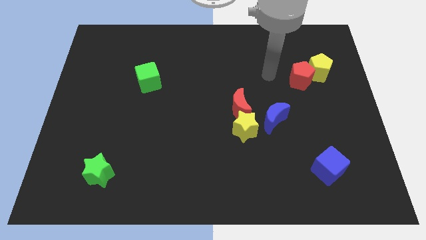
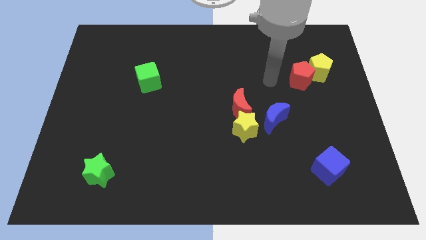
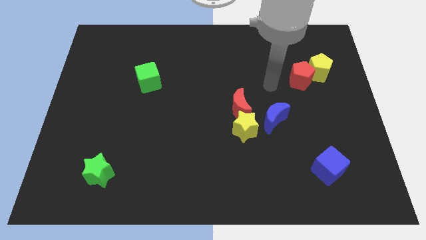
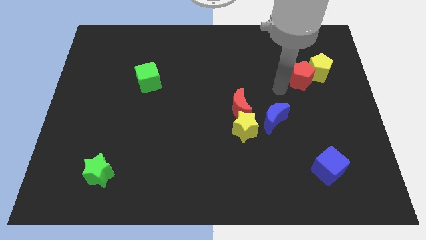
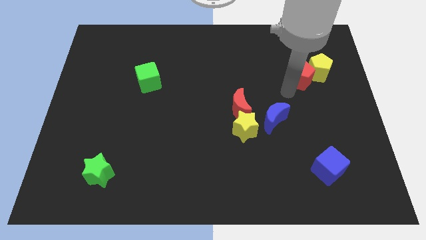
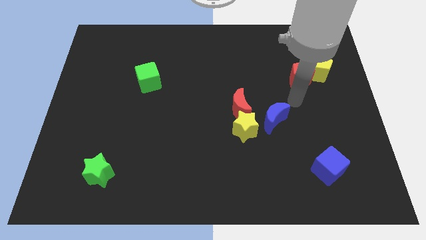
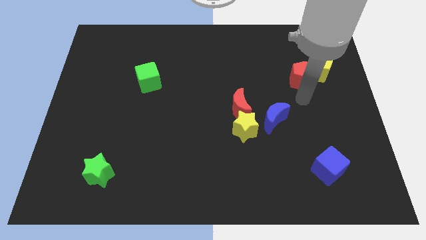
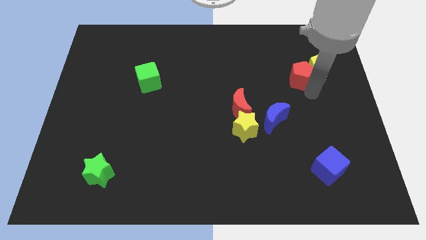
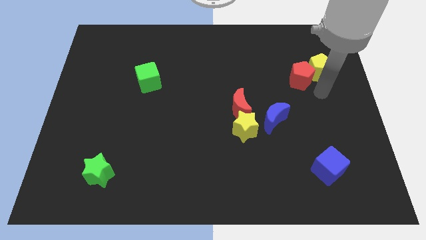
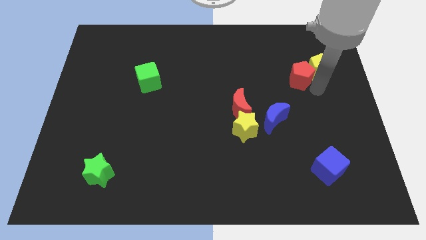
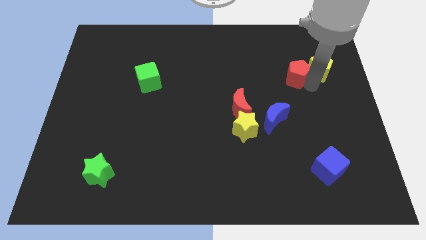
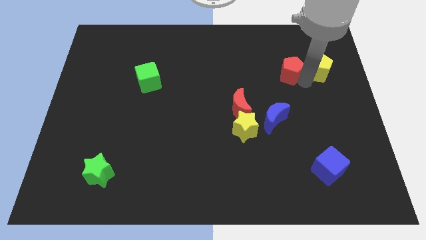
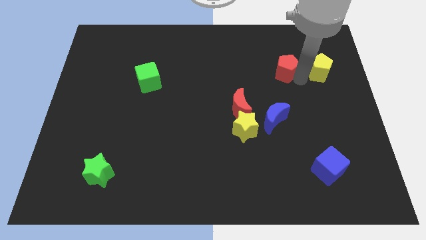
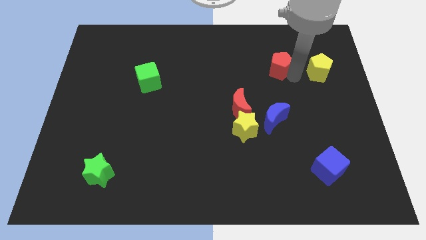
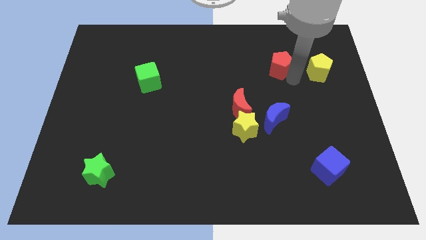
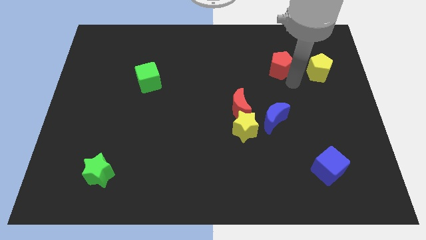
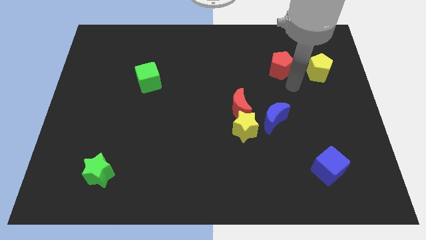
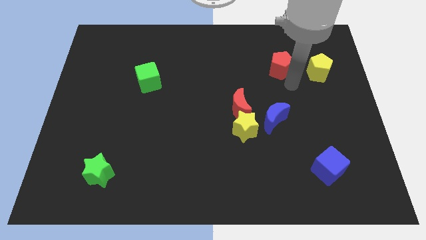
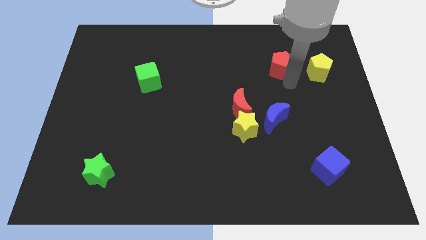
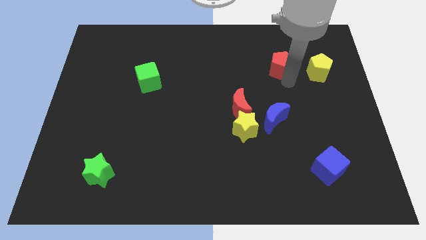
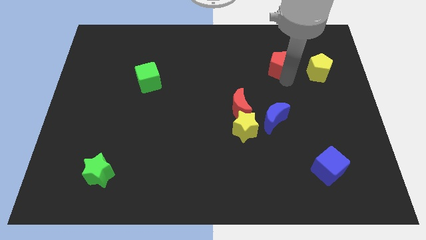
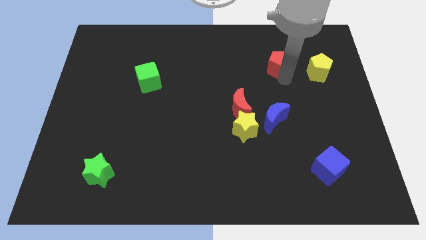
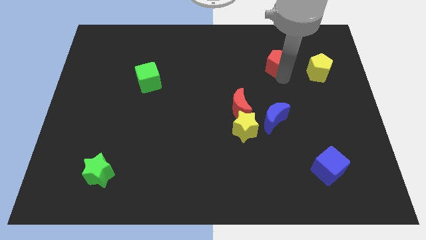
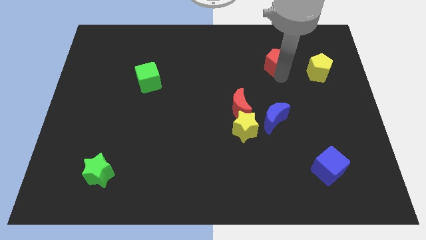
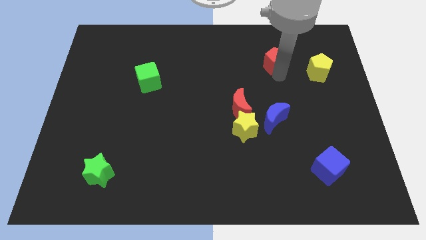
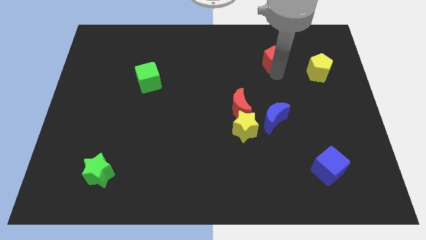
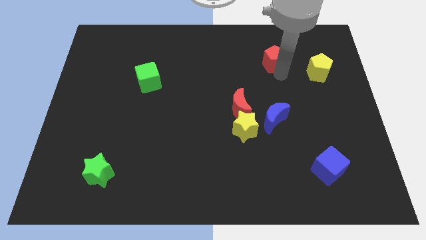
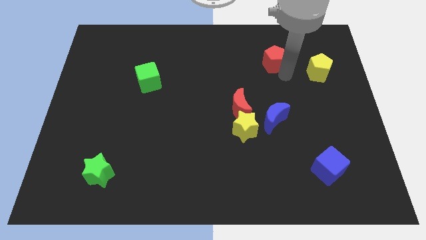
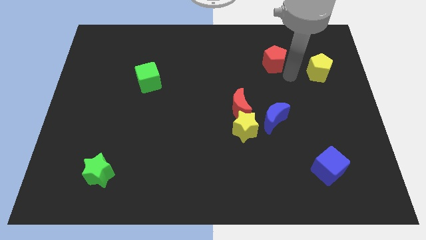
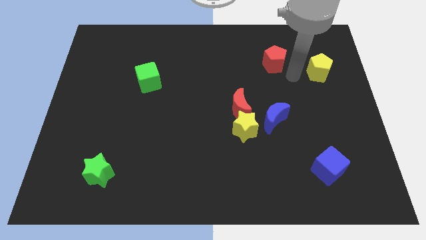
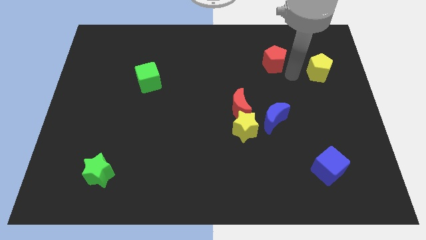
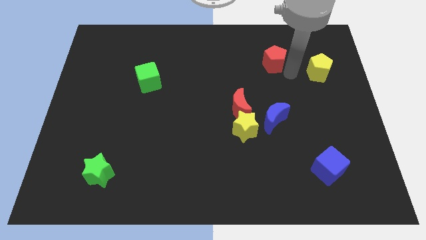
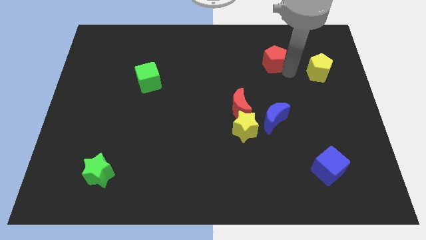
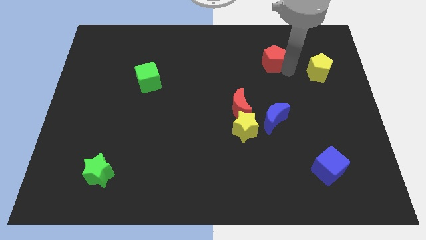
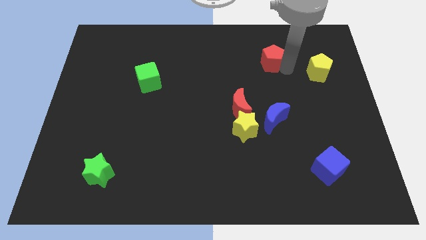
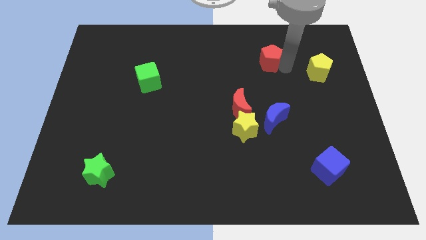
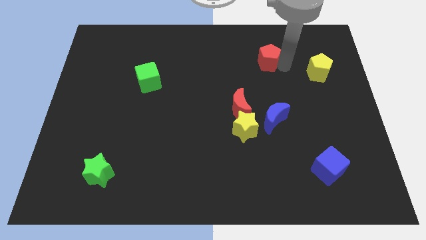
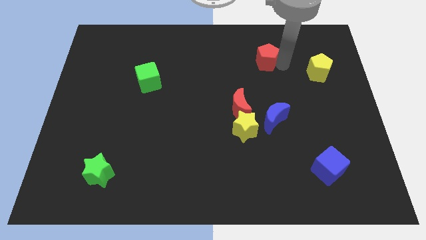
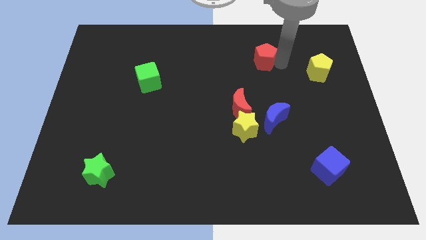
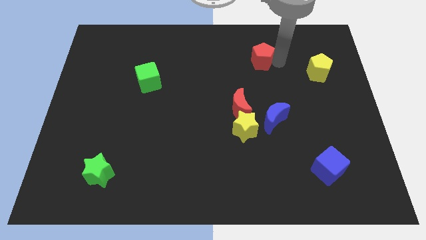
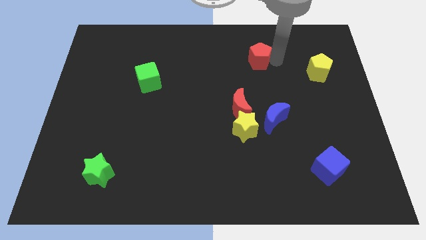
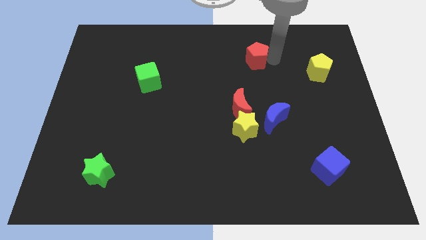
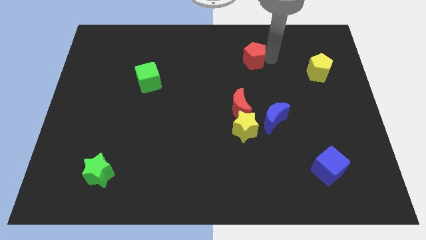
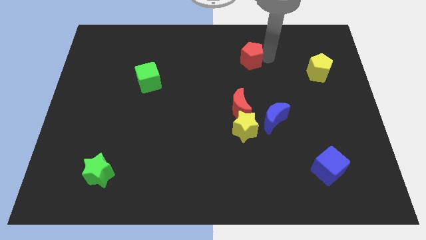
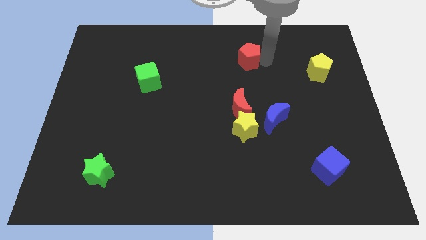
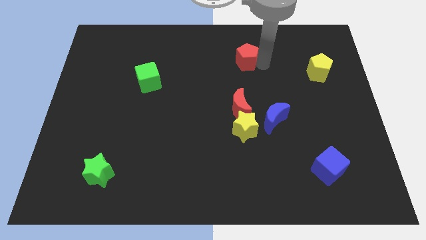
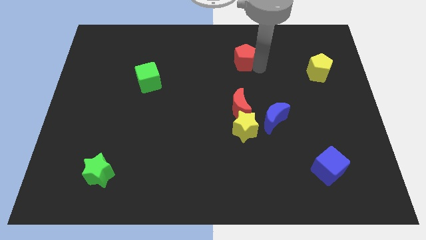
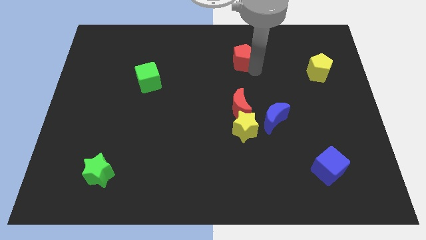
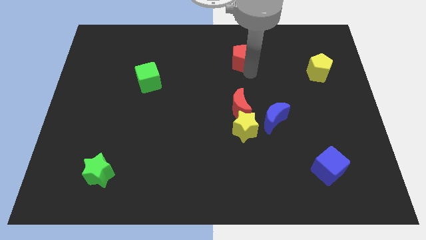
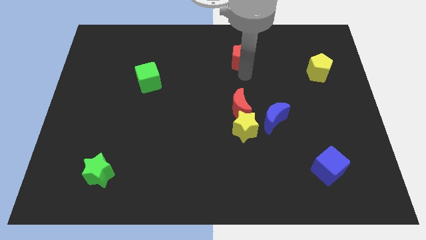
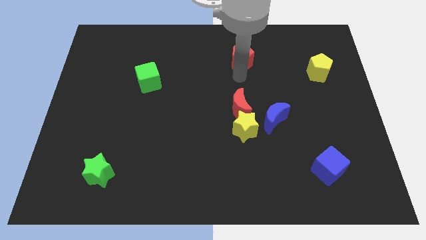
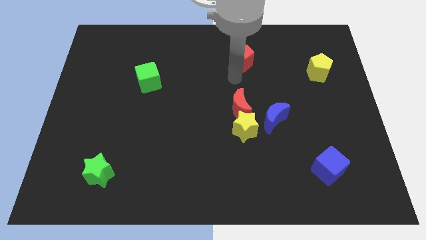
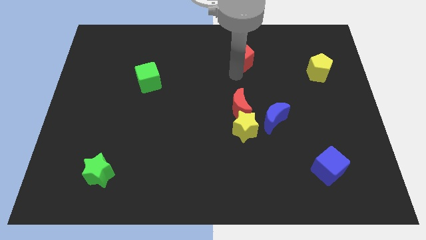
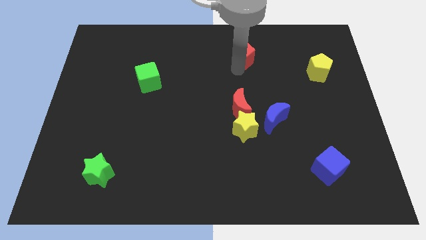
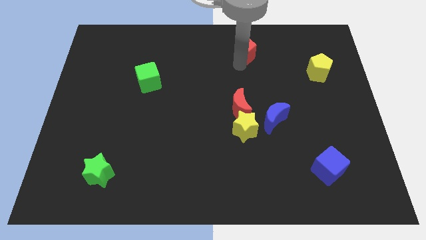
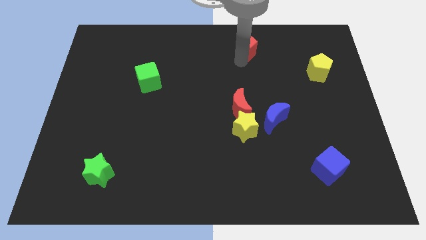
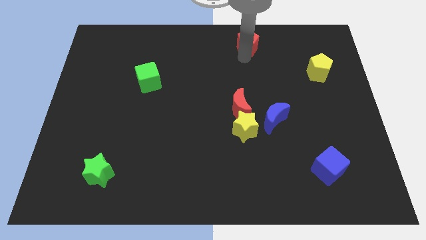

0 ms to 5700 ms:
push the red pentagon to the top

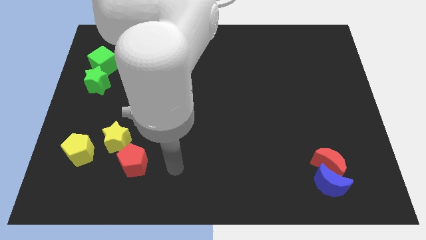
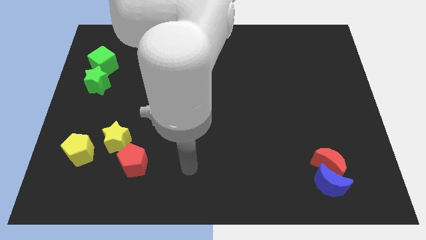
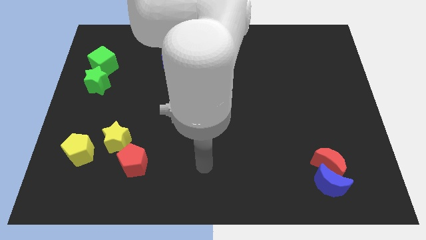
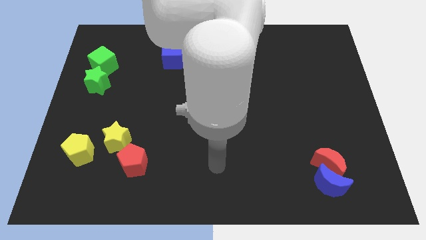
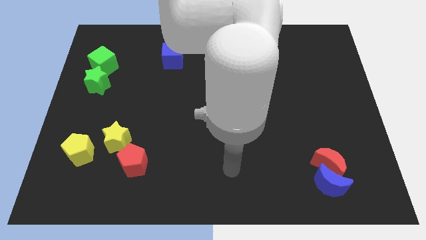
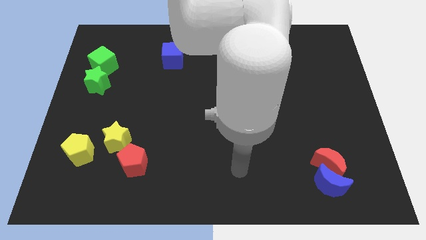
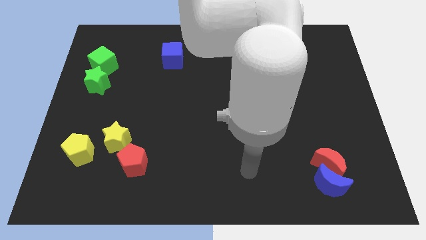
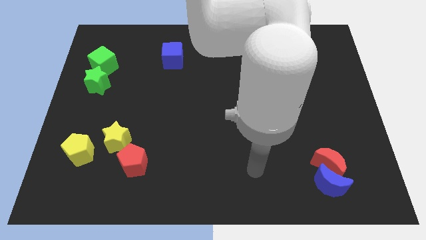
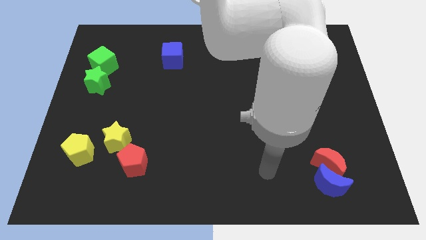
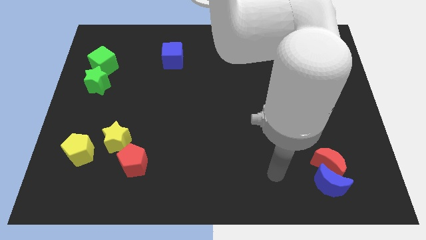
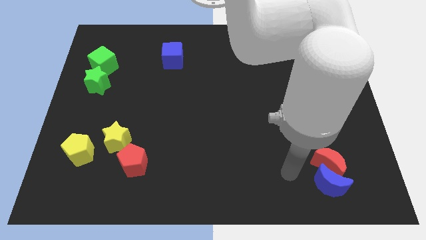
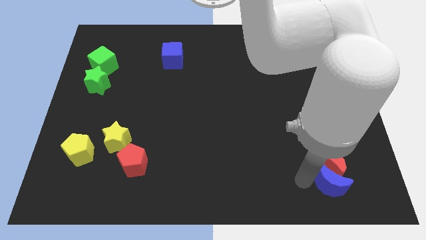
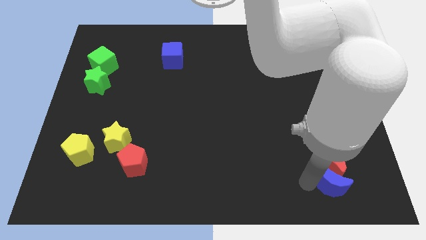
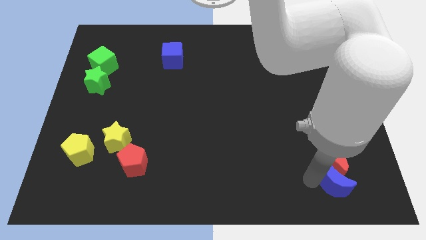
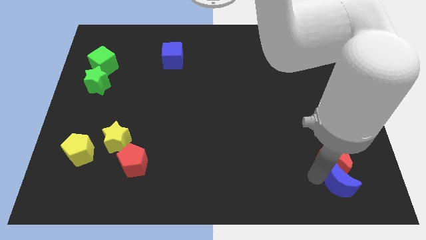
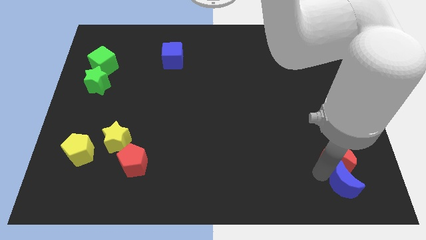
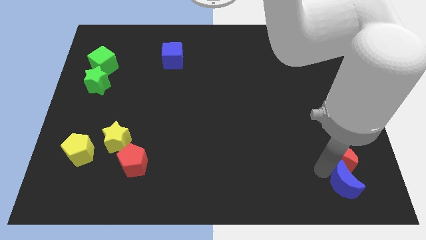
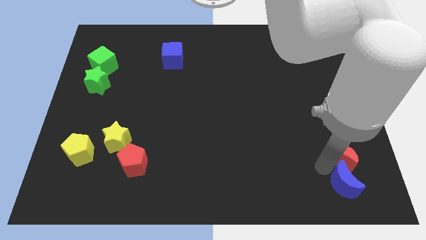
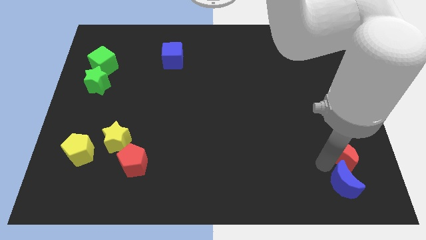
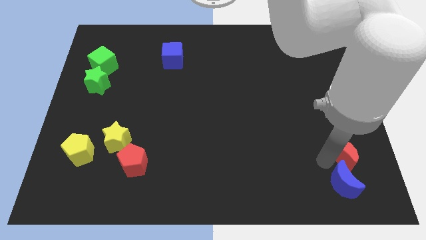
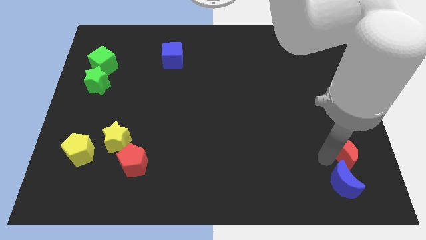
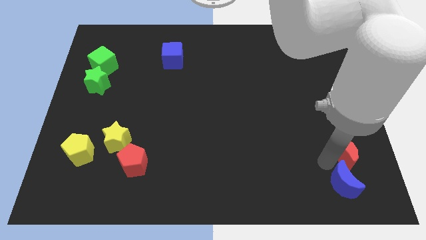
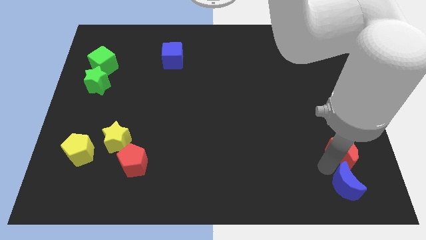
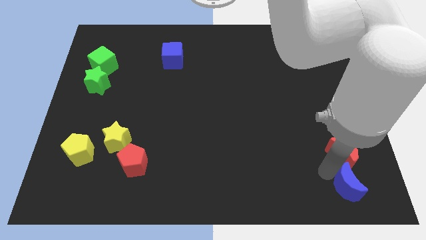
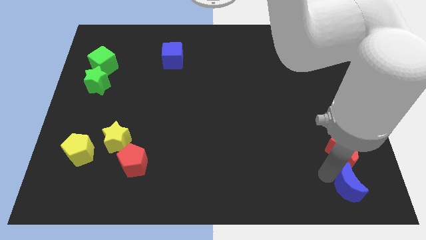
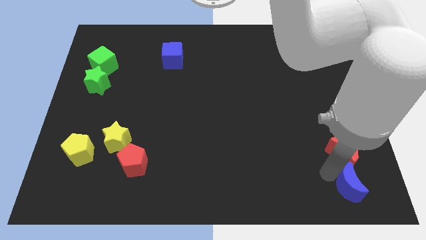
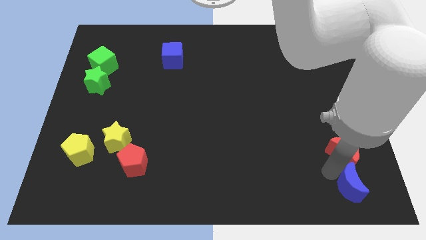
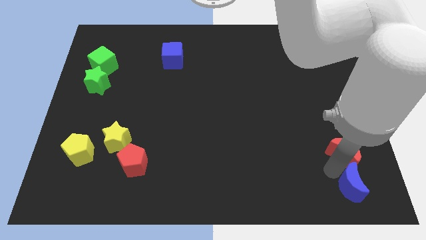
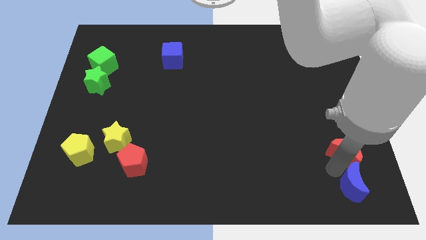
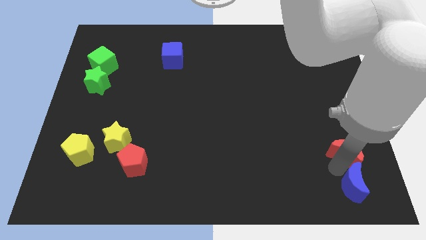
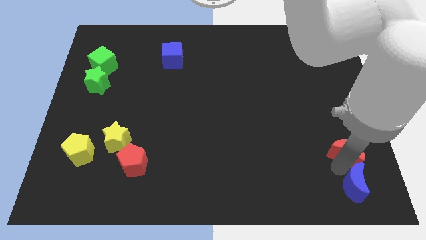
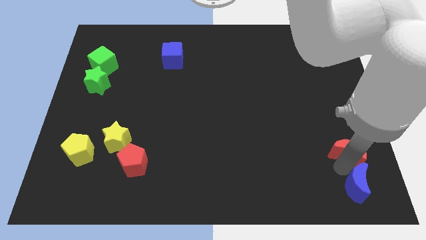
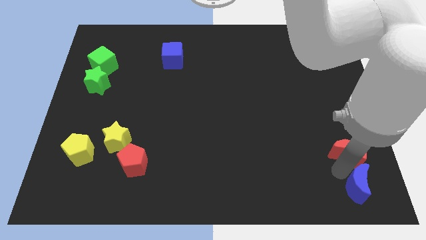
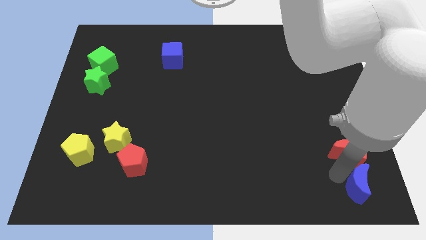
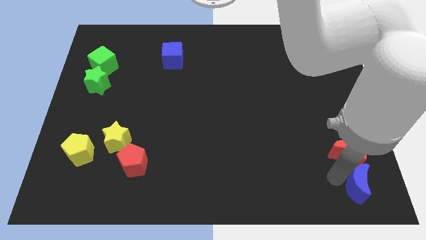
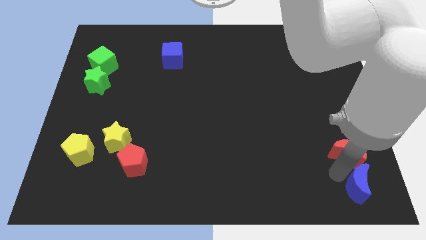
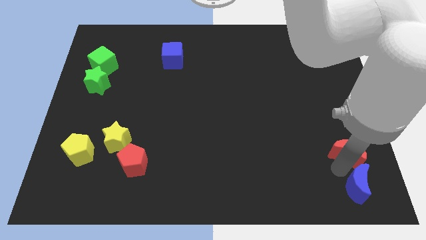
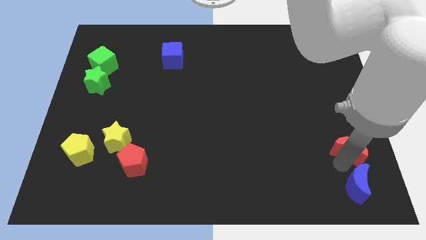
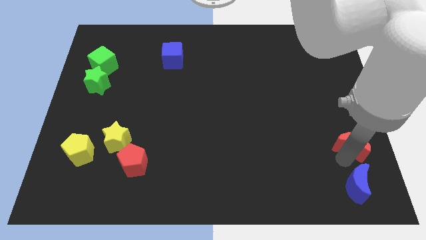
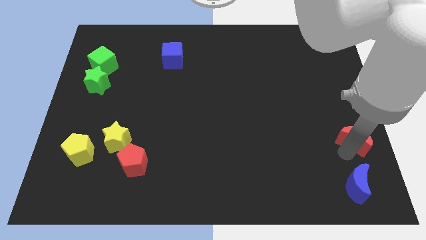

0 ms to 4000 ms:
push the red moon to the center right
